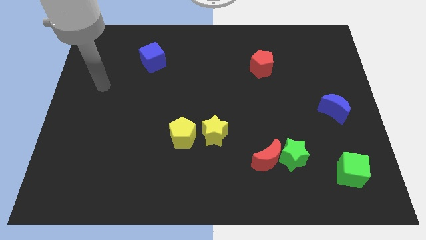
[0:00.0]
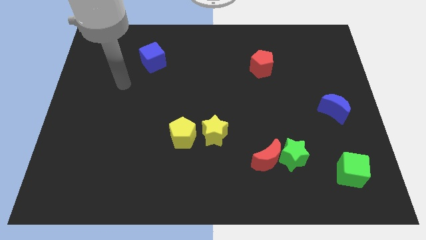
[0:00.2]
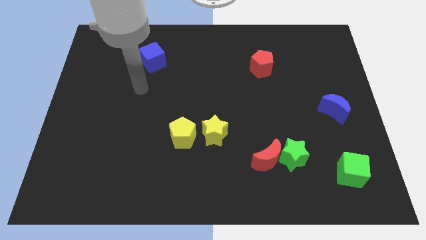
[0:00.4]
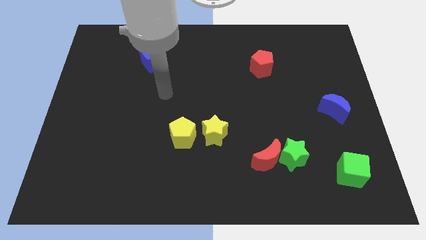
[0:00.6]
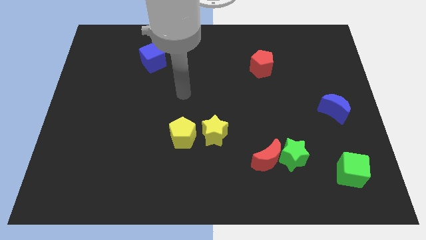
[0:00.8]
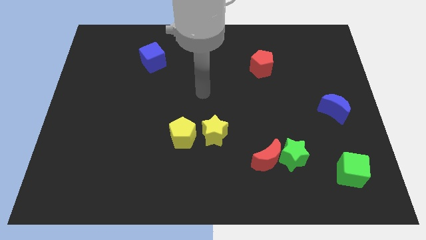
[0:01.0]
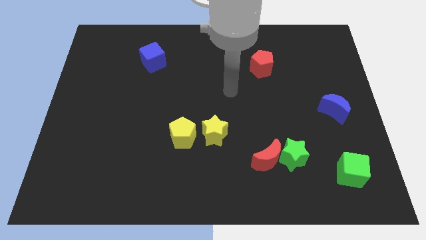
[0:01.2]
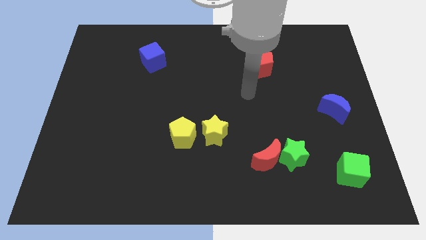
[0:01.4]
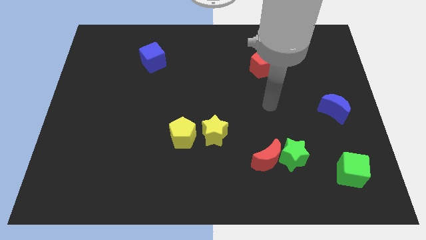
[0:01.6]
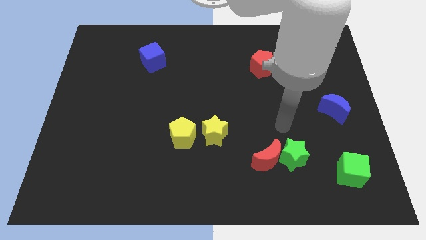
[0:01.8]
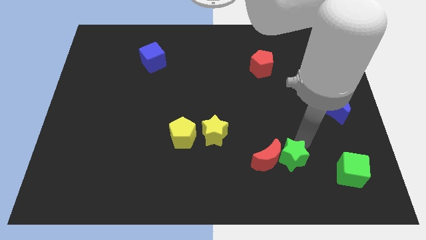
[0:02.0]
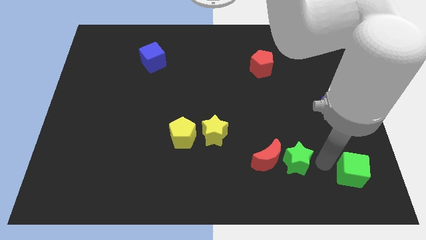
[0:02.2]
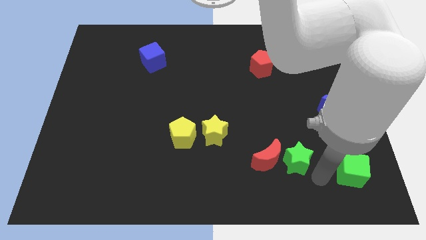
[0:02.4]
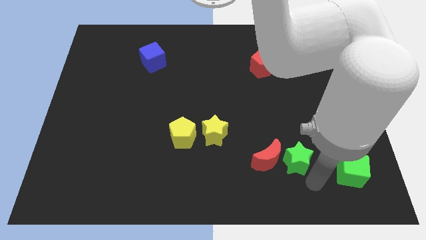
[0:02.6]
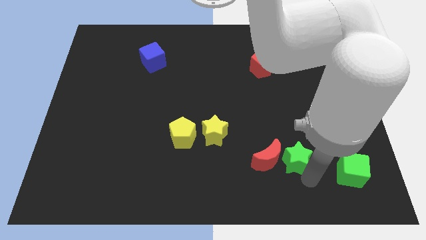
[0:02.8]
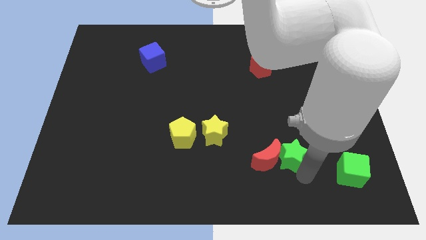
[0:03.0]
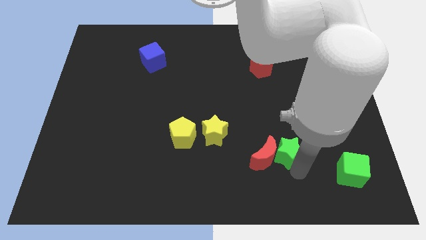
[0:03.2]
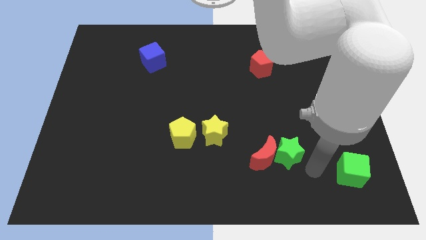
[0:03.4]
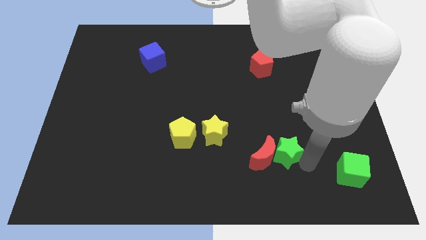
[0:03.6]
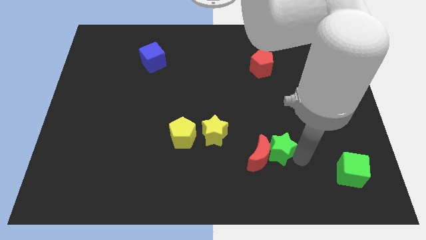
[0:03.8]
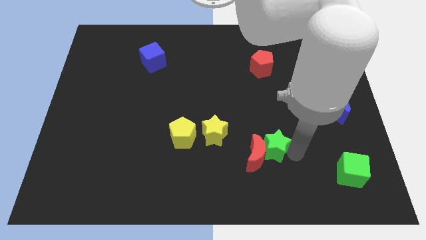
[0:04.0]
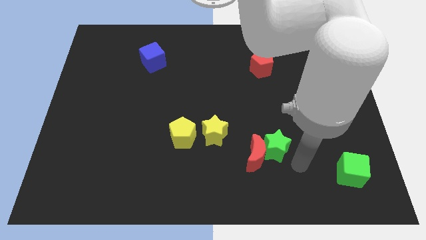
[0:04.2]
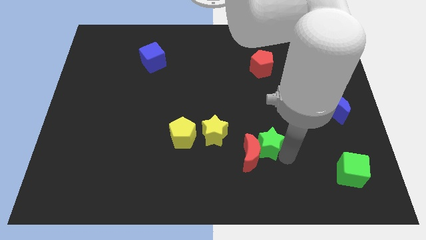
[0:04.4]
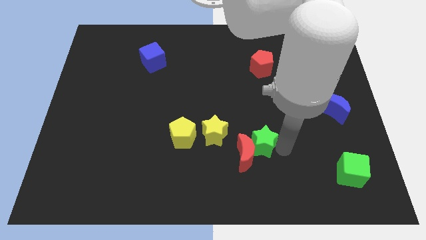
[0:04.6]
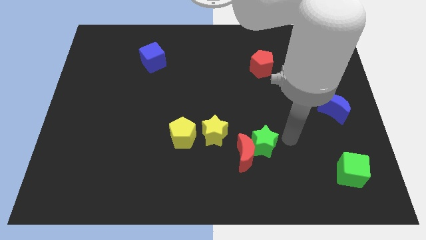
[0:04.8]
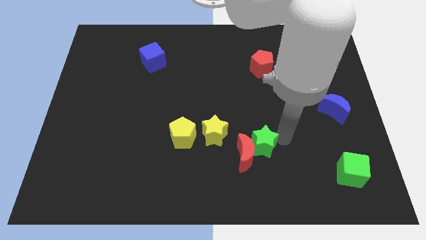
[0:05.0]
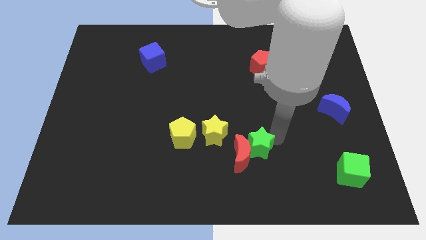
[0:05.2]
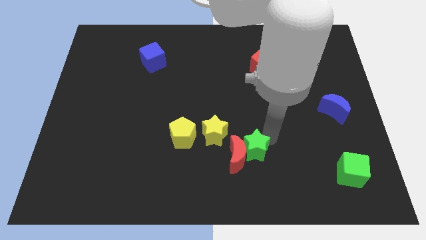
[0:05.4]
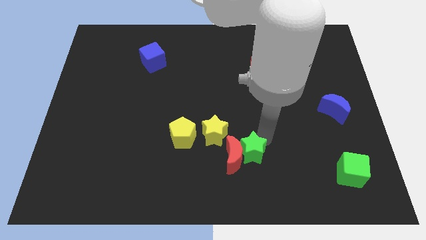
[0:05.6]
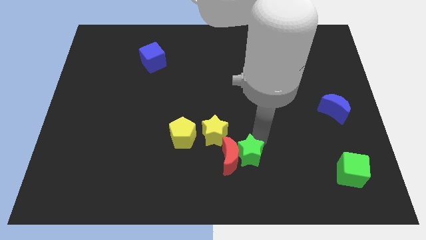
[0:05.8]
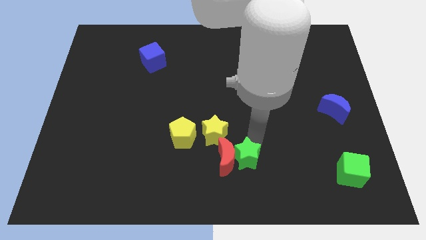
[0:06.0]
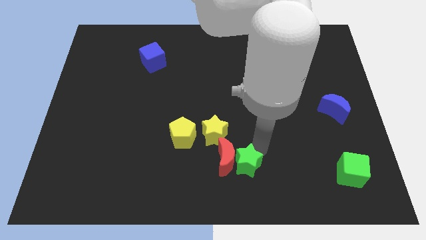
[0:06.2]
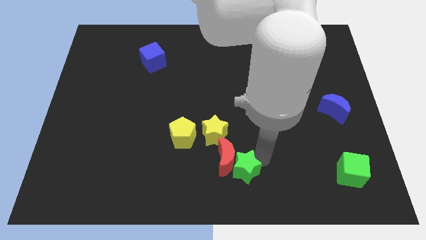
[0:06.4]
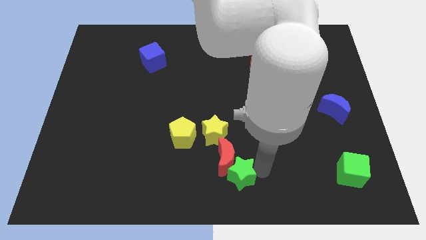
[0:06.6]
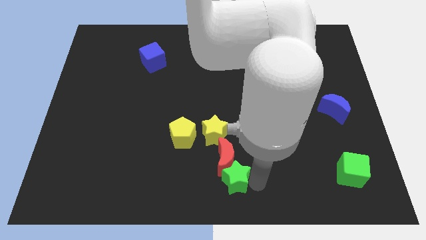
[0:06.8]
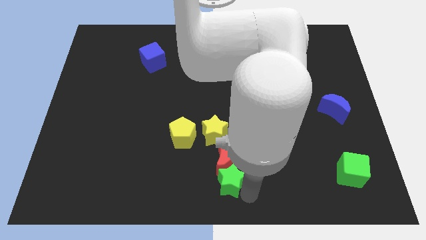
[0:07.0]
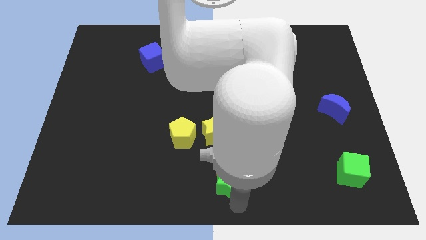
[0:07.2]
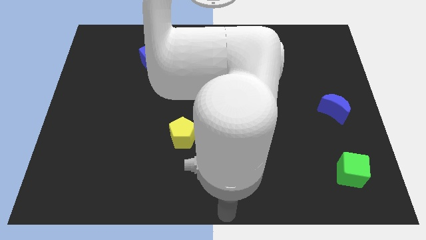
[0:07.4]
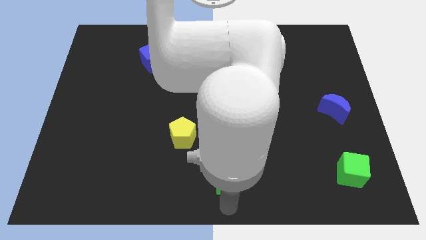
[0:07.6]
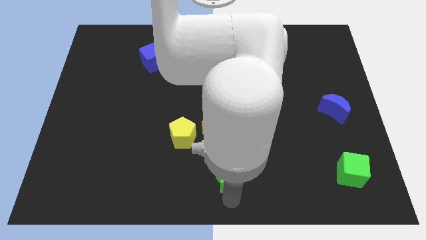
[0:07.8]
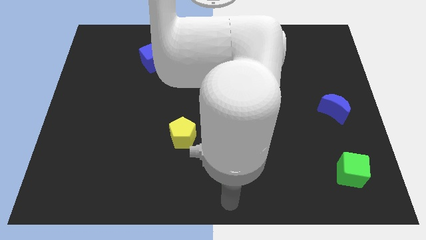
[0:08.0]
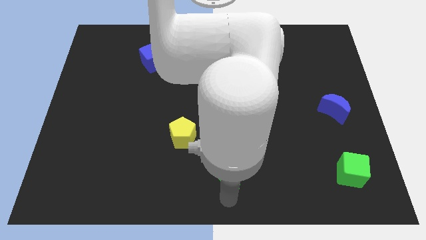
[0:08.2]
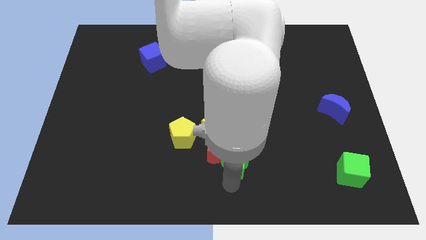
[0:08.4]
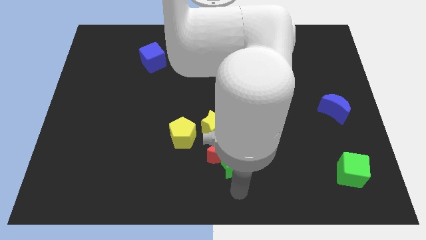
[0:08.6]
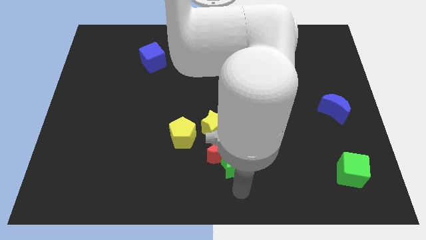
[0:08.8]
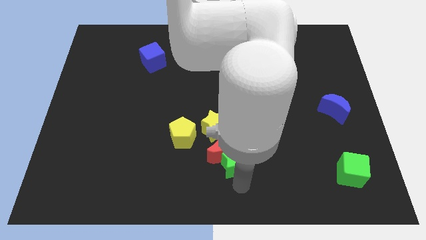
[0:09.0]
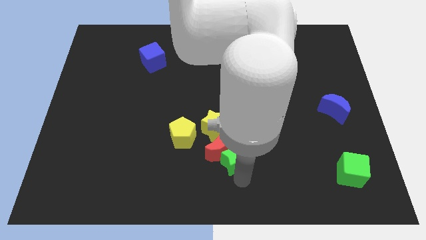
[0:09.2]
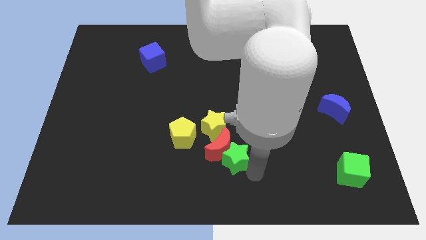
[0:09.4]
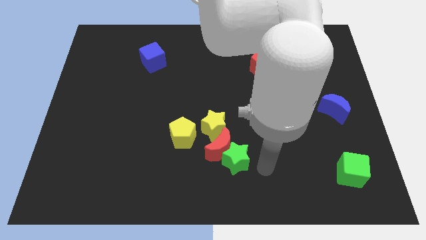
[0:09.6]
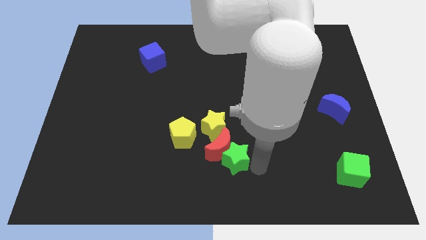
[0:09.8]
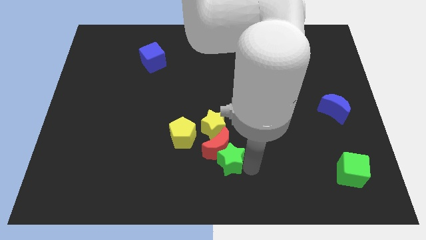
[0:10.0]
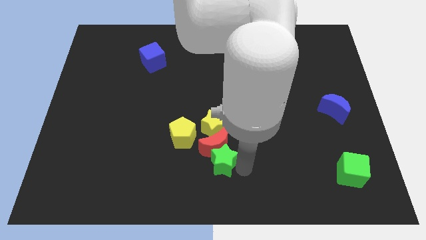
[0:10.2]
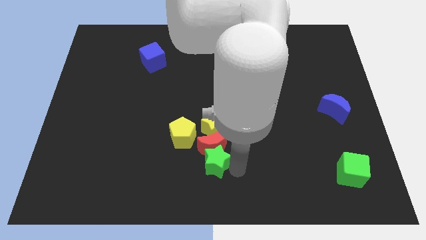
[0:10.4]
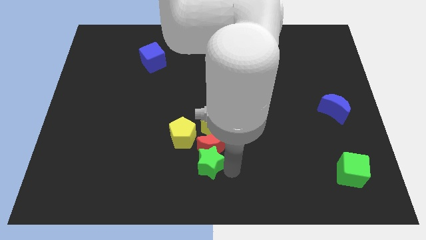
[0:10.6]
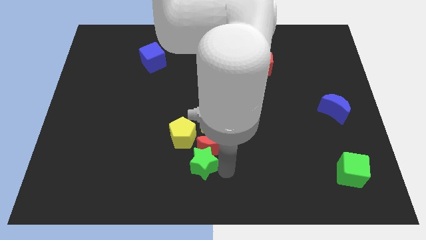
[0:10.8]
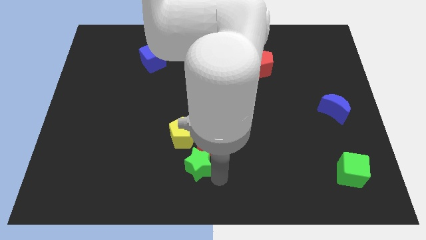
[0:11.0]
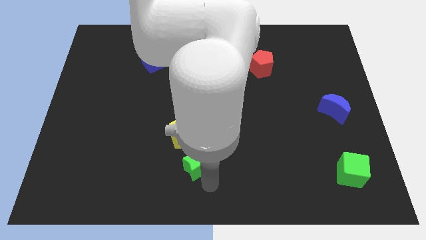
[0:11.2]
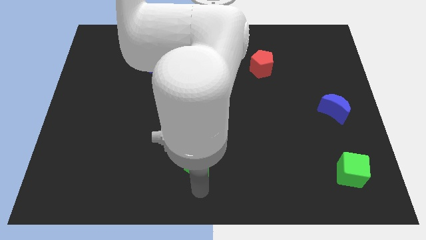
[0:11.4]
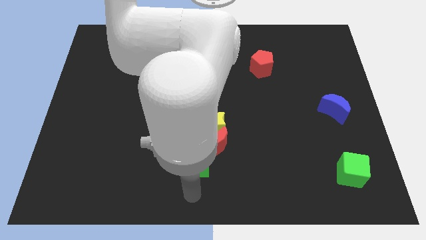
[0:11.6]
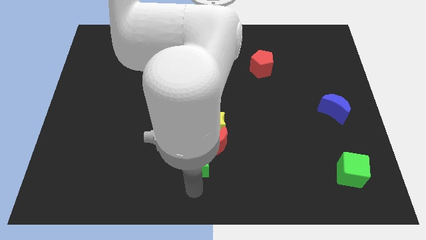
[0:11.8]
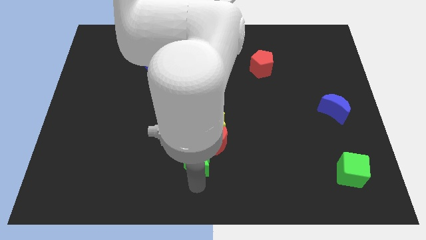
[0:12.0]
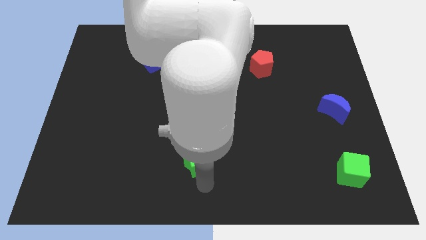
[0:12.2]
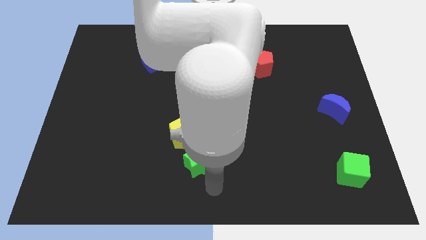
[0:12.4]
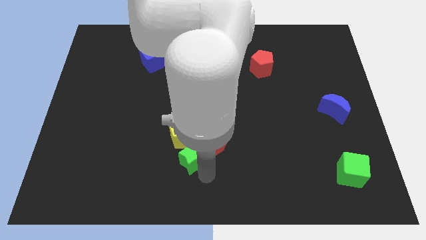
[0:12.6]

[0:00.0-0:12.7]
slide the green star to the yellow pentagon

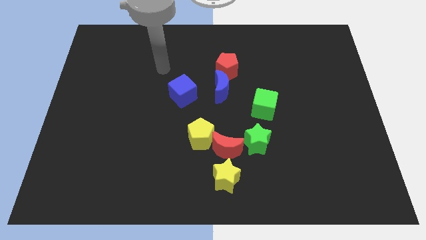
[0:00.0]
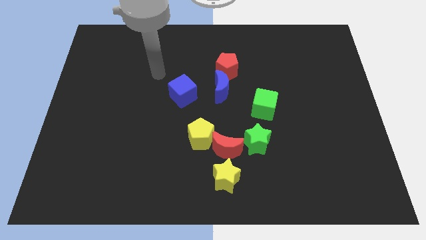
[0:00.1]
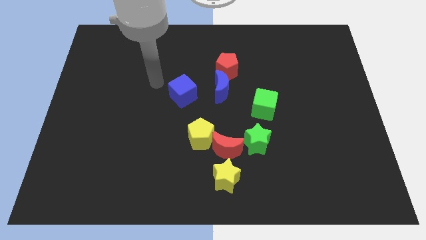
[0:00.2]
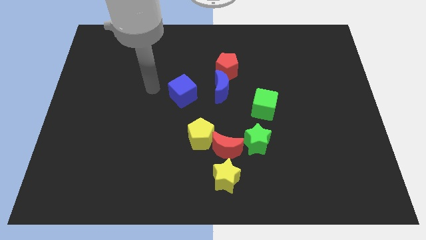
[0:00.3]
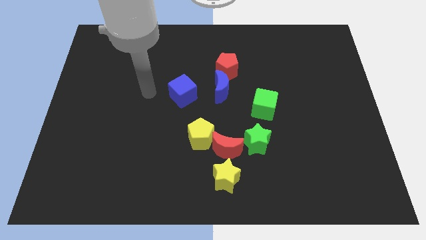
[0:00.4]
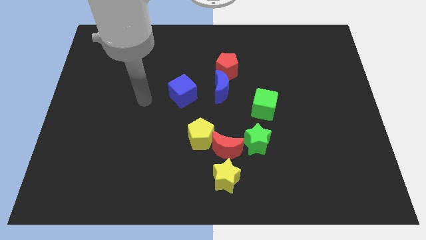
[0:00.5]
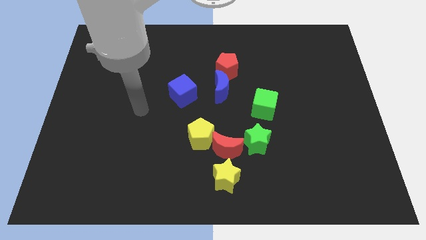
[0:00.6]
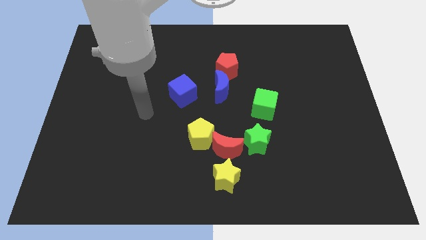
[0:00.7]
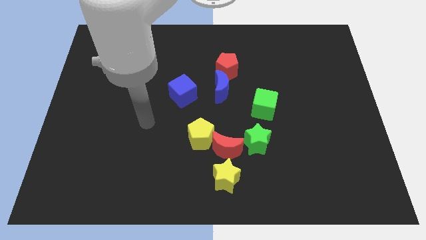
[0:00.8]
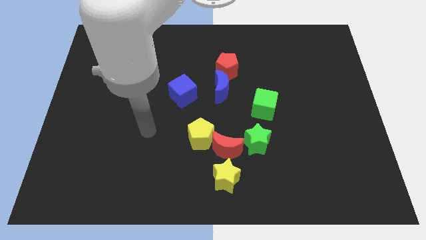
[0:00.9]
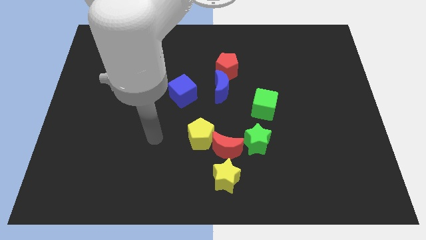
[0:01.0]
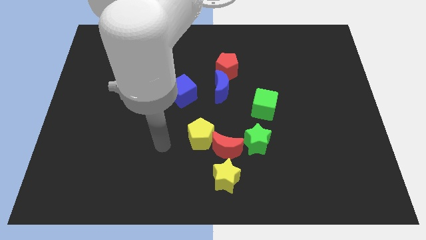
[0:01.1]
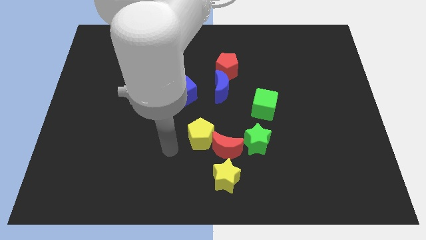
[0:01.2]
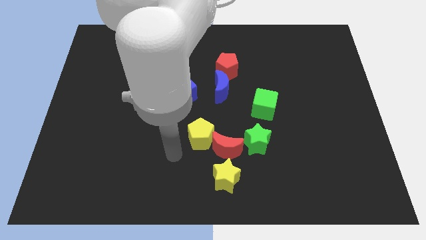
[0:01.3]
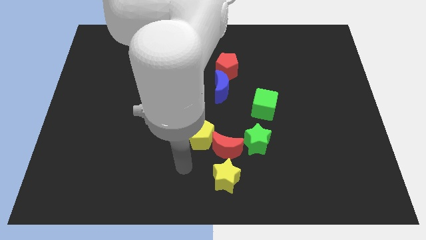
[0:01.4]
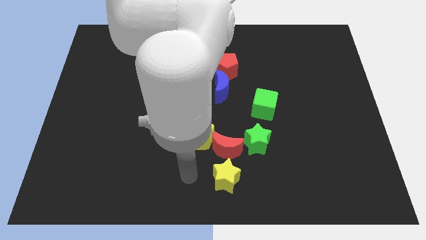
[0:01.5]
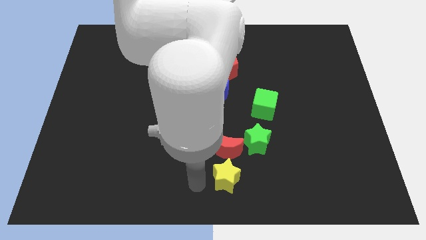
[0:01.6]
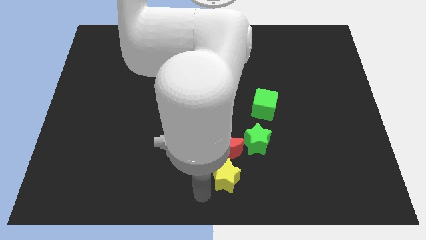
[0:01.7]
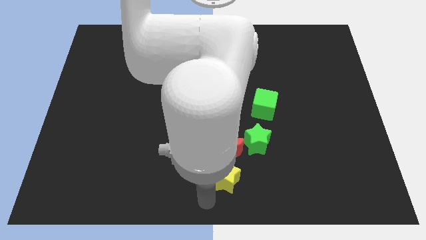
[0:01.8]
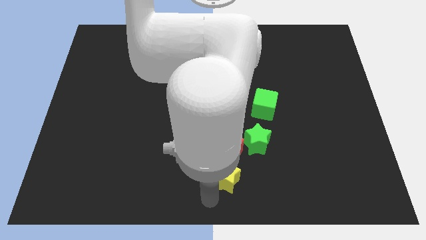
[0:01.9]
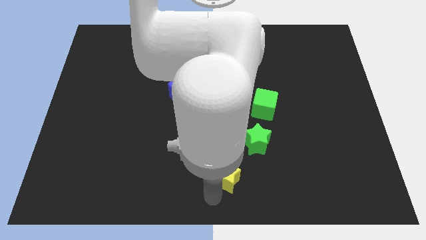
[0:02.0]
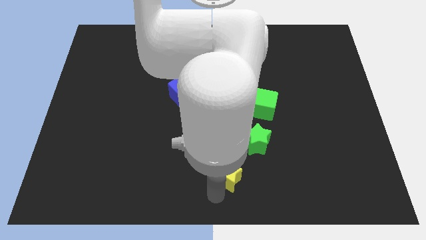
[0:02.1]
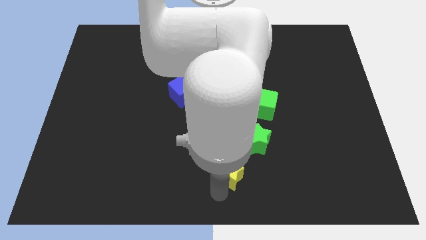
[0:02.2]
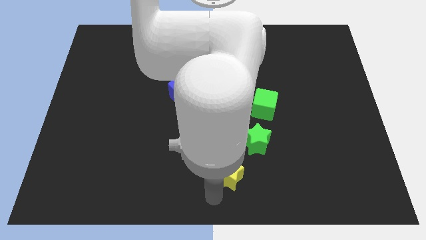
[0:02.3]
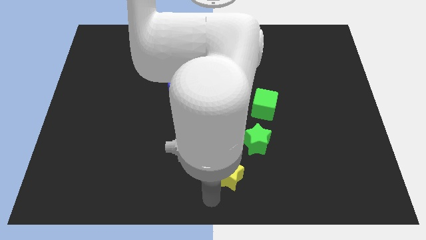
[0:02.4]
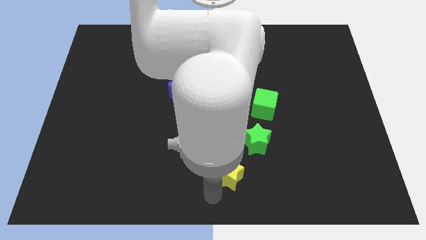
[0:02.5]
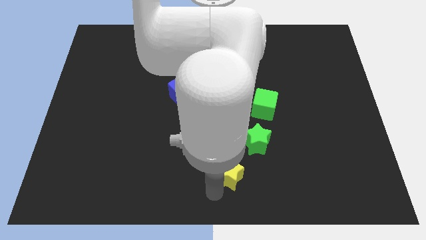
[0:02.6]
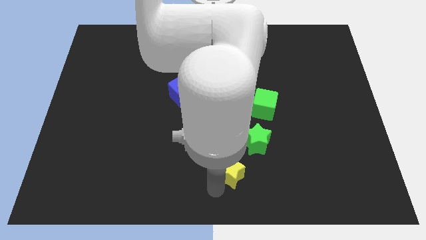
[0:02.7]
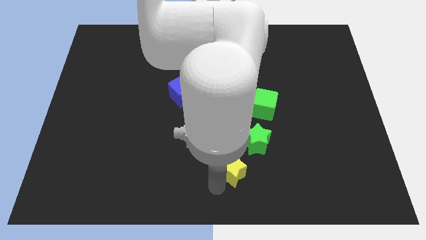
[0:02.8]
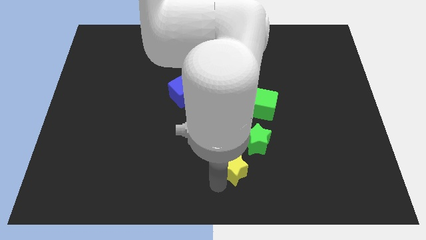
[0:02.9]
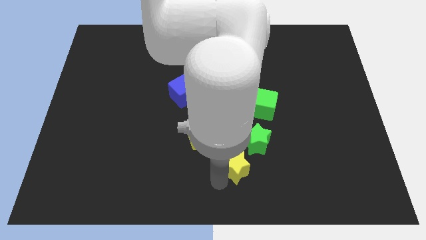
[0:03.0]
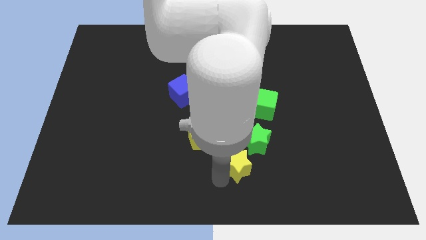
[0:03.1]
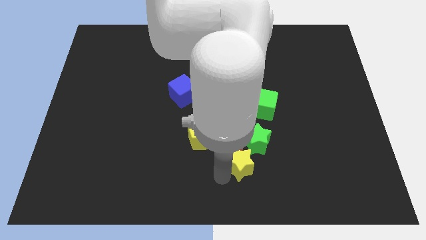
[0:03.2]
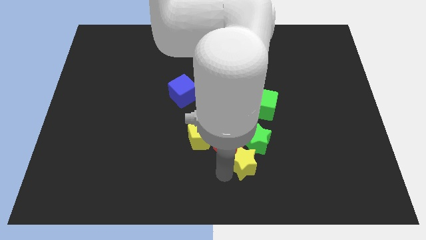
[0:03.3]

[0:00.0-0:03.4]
push the yellow star towards the green star
